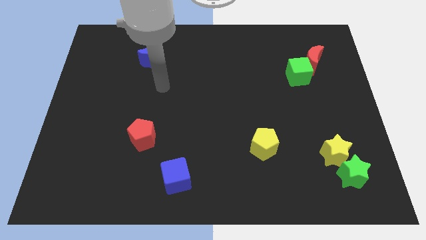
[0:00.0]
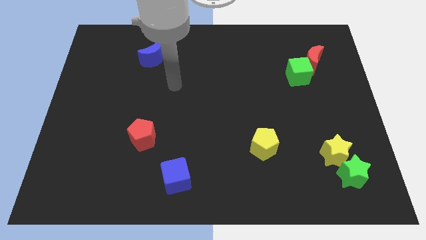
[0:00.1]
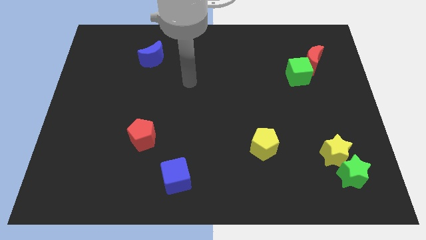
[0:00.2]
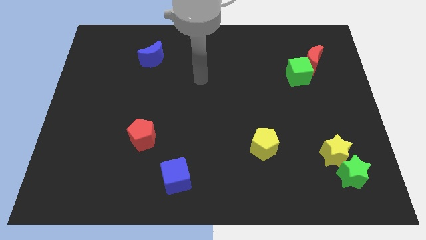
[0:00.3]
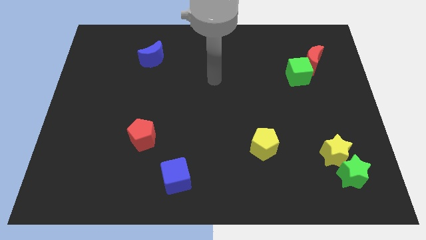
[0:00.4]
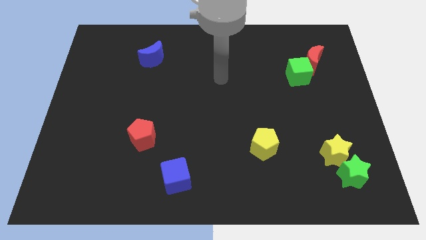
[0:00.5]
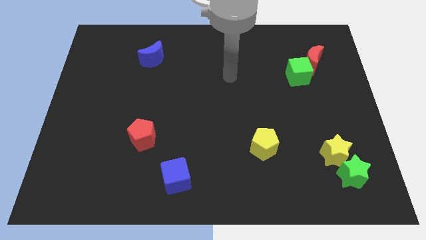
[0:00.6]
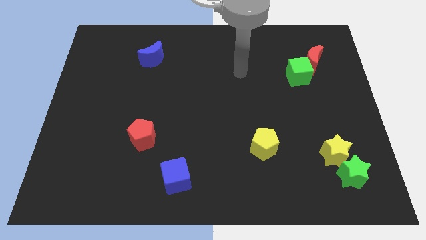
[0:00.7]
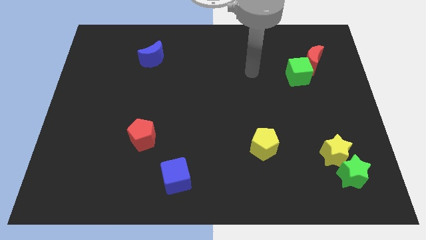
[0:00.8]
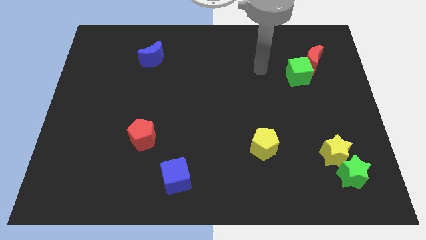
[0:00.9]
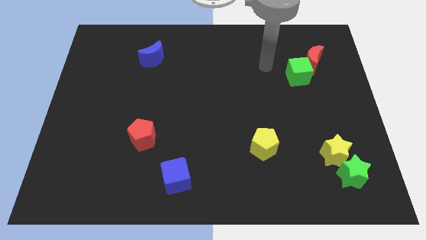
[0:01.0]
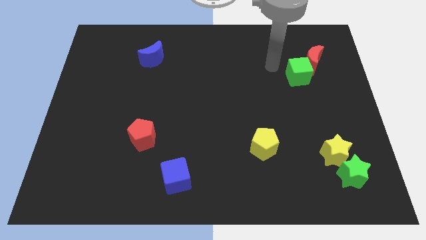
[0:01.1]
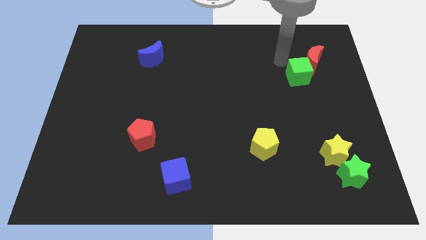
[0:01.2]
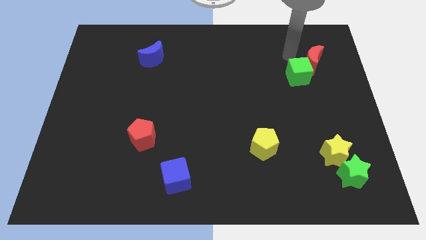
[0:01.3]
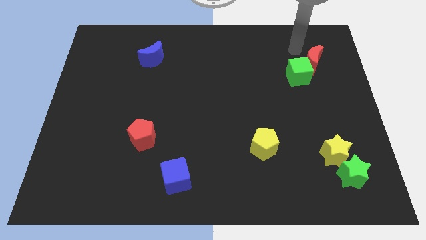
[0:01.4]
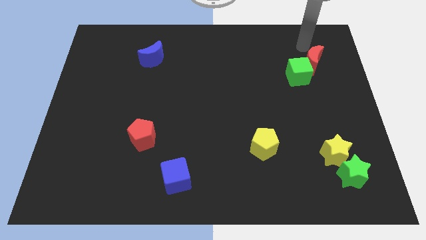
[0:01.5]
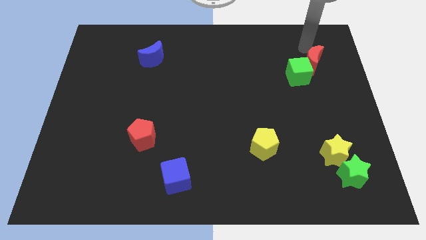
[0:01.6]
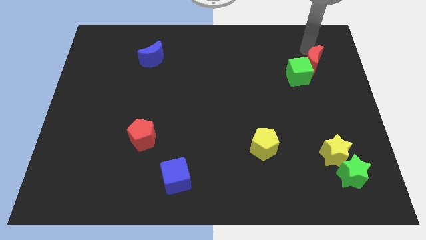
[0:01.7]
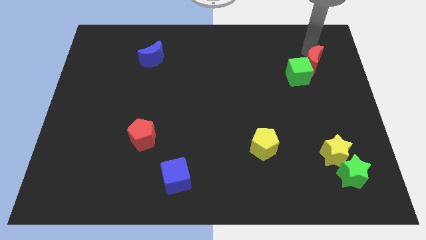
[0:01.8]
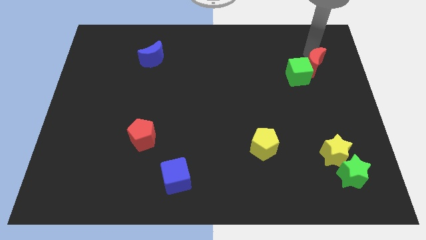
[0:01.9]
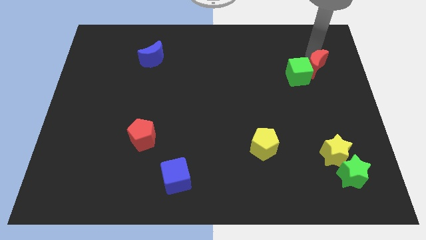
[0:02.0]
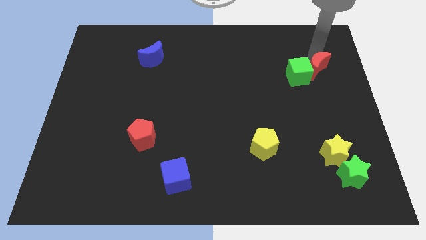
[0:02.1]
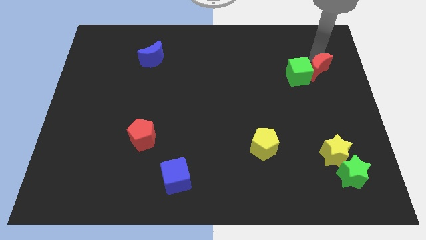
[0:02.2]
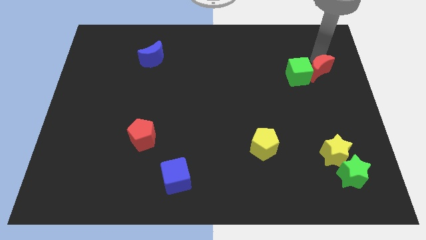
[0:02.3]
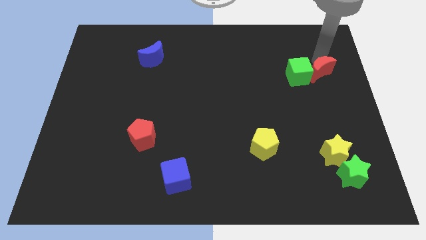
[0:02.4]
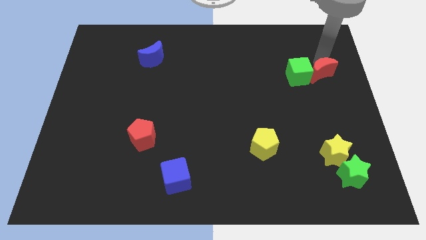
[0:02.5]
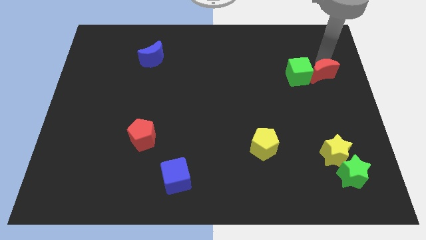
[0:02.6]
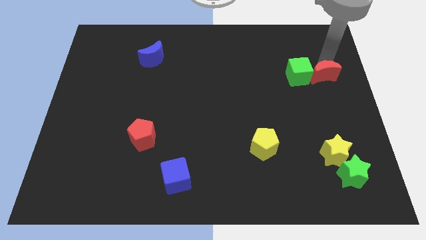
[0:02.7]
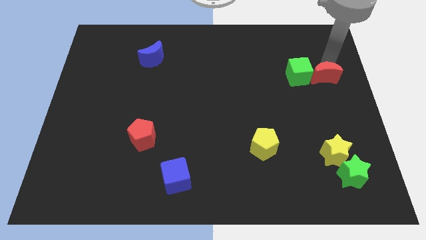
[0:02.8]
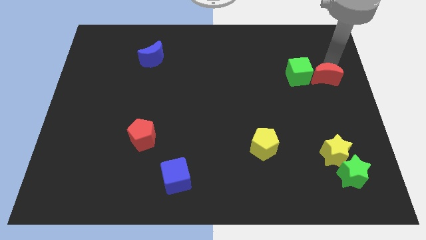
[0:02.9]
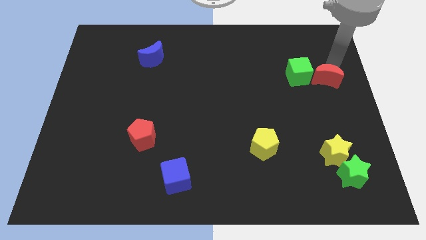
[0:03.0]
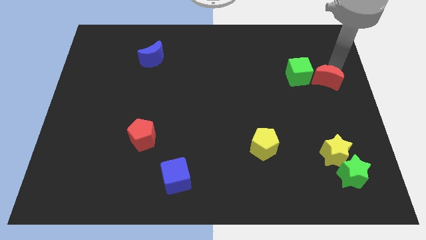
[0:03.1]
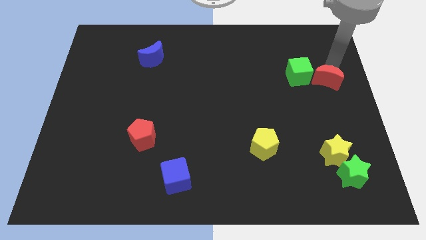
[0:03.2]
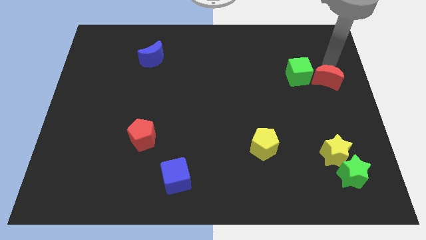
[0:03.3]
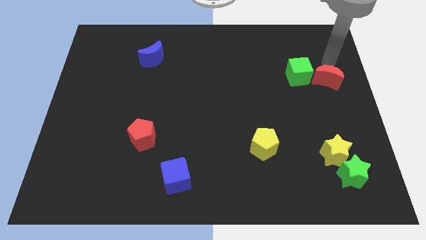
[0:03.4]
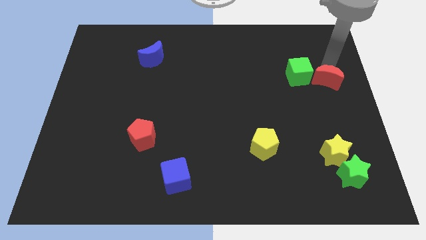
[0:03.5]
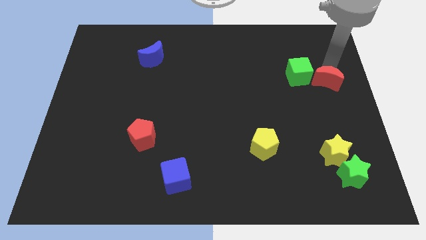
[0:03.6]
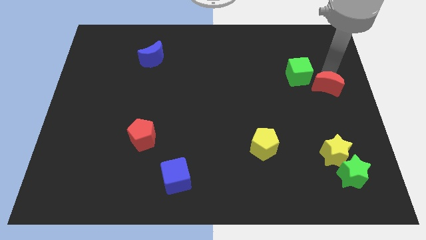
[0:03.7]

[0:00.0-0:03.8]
slightly push the red moon down

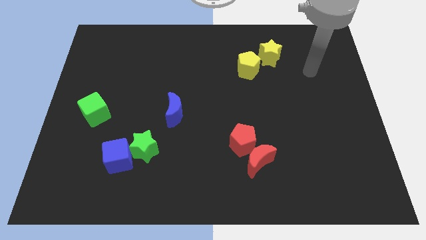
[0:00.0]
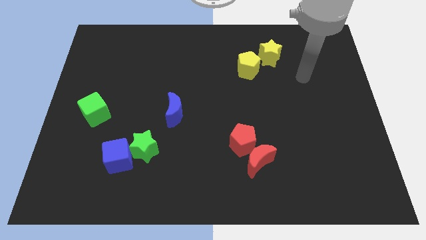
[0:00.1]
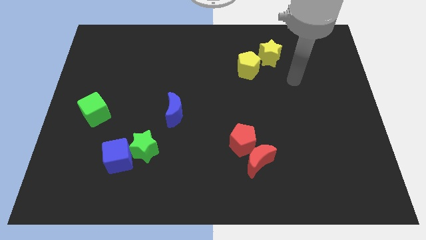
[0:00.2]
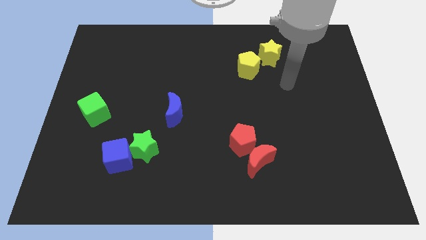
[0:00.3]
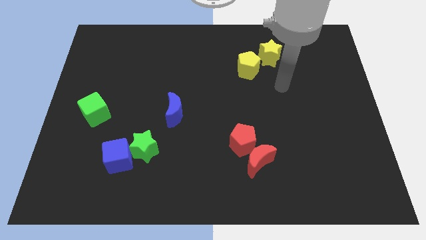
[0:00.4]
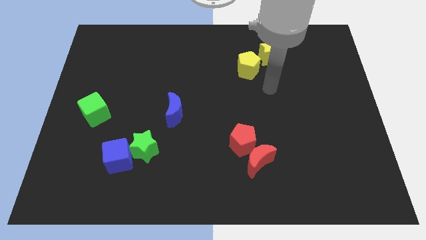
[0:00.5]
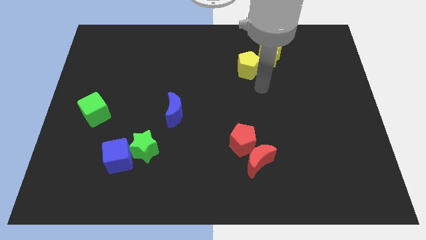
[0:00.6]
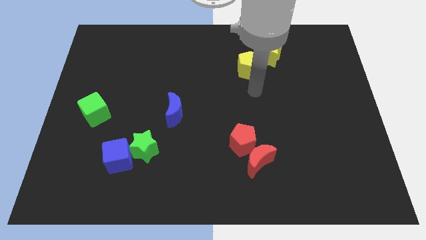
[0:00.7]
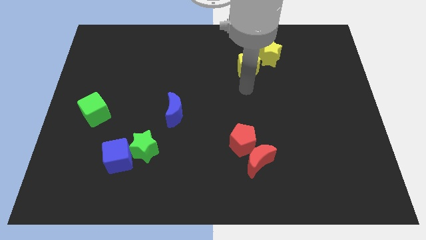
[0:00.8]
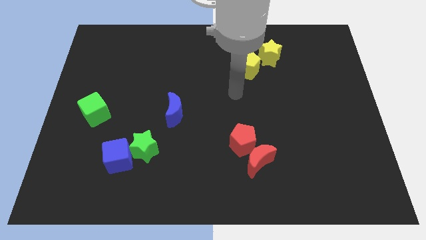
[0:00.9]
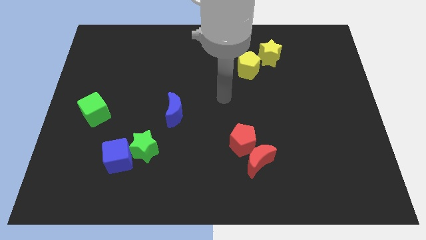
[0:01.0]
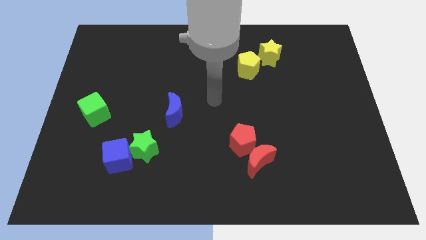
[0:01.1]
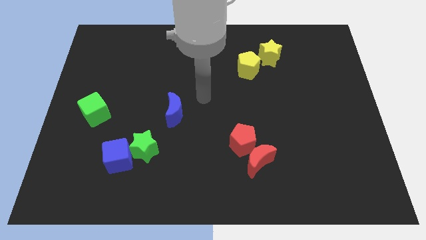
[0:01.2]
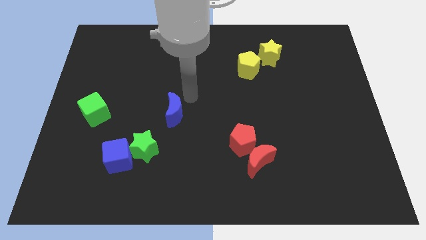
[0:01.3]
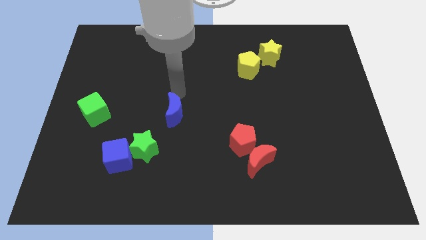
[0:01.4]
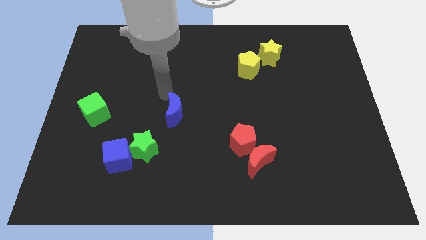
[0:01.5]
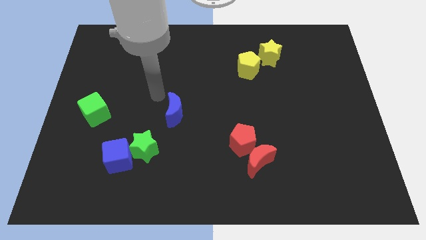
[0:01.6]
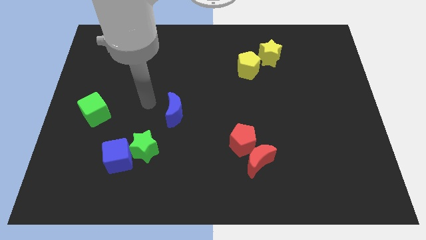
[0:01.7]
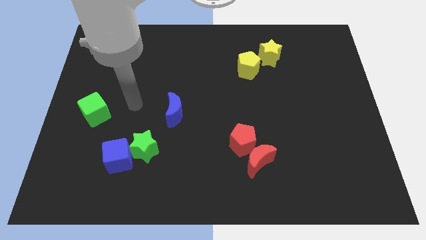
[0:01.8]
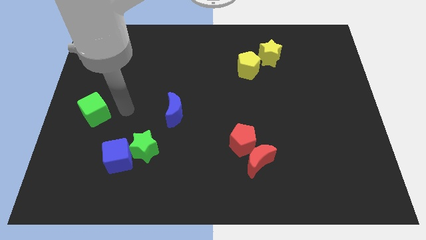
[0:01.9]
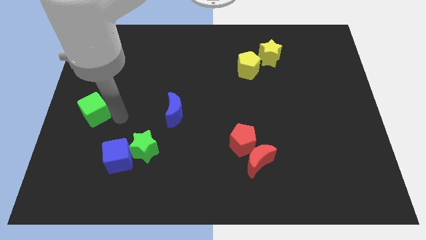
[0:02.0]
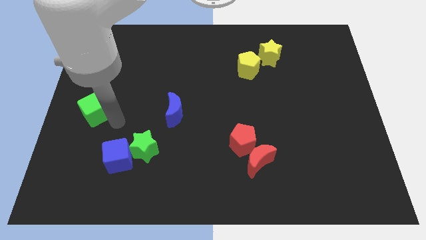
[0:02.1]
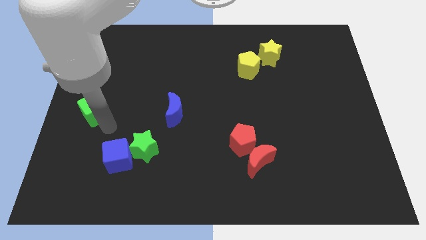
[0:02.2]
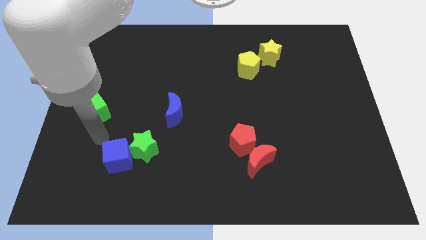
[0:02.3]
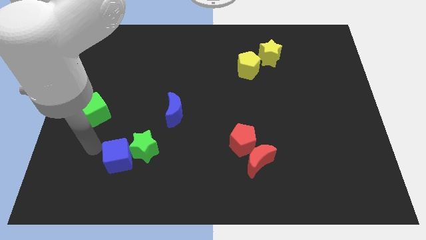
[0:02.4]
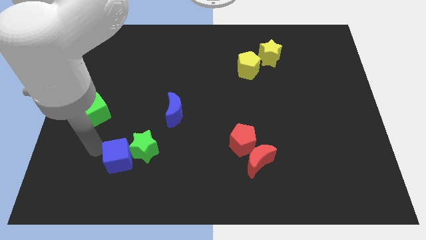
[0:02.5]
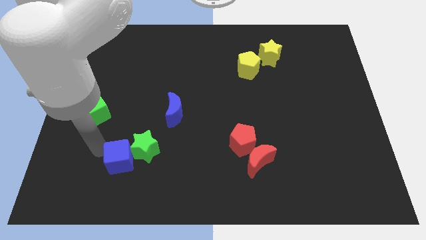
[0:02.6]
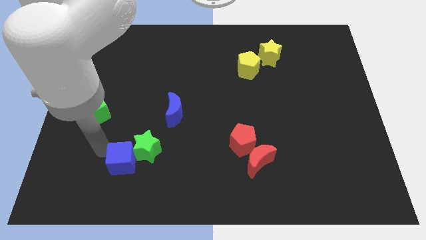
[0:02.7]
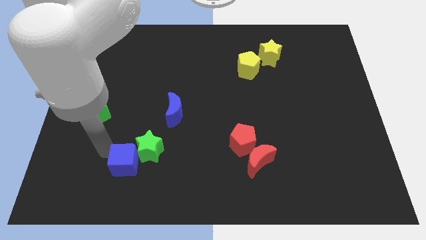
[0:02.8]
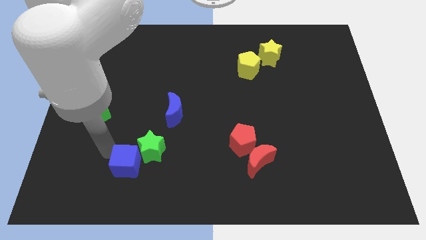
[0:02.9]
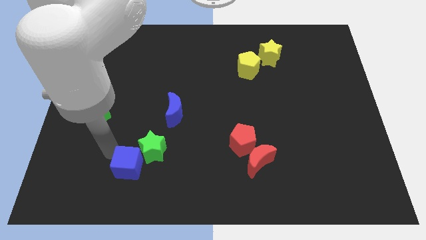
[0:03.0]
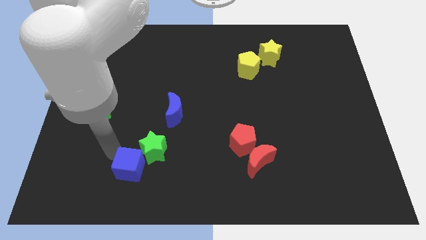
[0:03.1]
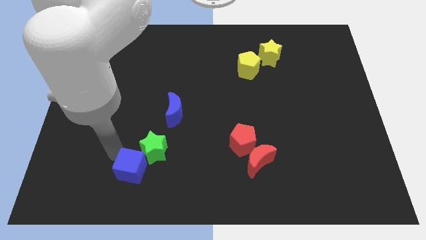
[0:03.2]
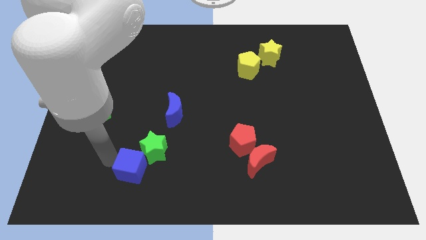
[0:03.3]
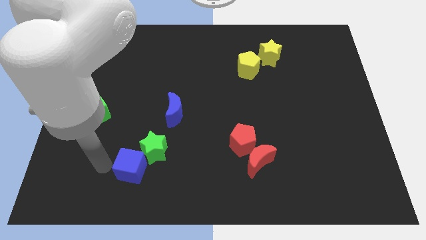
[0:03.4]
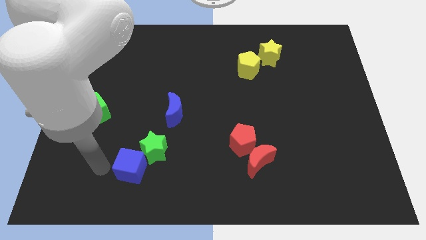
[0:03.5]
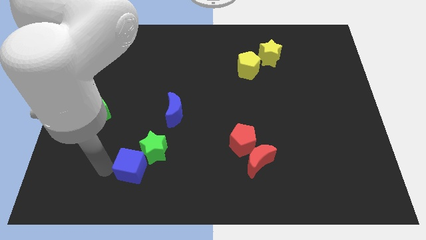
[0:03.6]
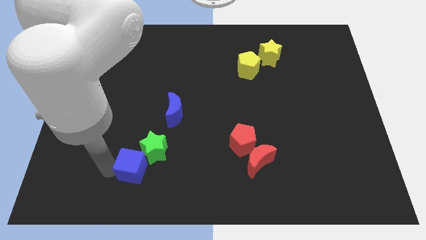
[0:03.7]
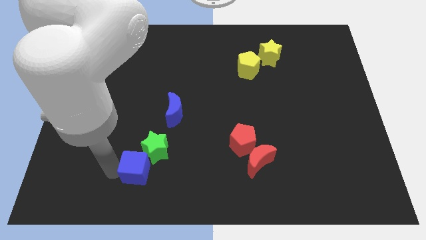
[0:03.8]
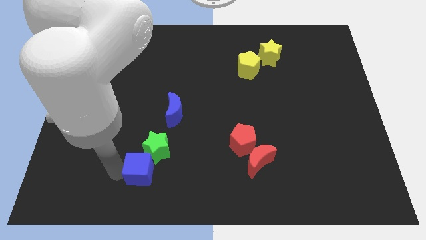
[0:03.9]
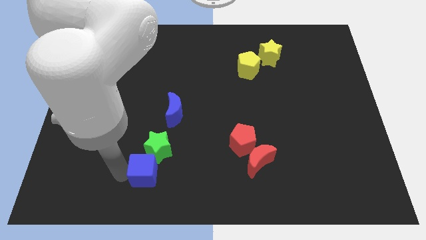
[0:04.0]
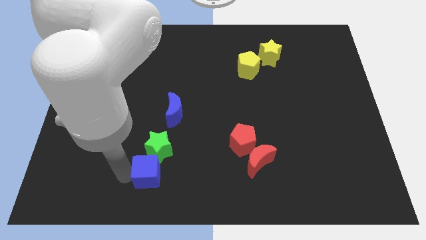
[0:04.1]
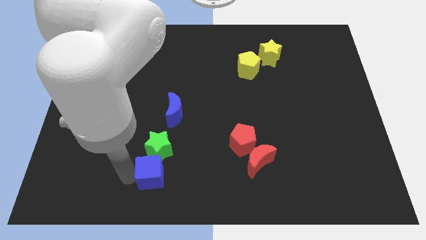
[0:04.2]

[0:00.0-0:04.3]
move the blue cube right somewhat
